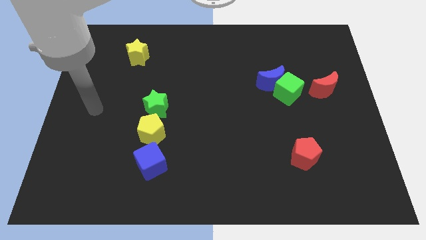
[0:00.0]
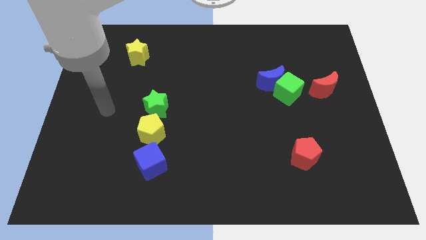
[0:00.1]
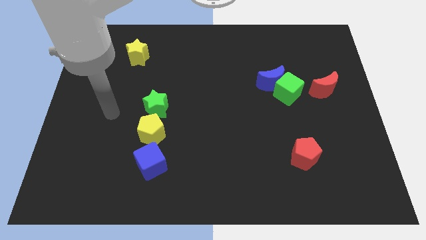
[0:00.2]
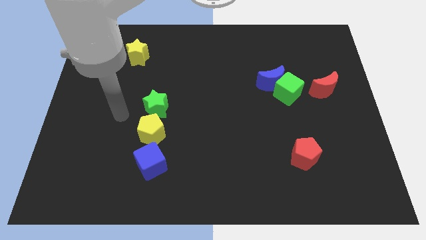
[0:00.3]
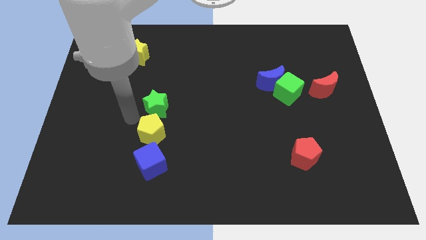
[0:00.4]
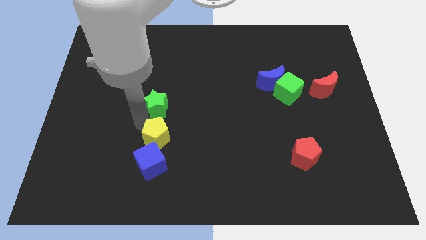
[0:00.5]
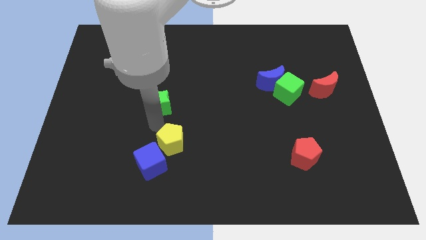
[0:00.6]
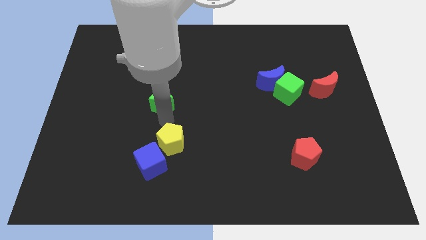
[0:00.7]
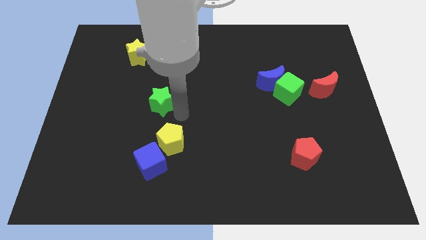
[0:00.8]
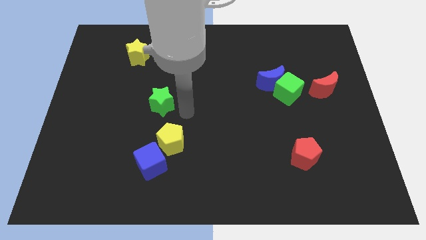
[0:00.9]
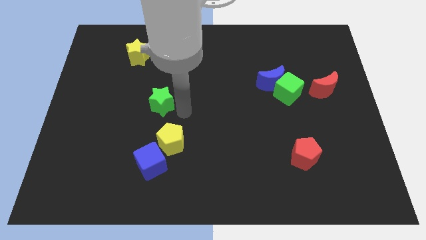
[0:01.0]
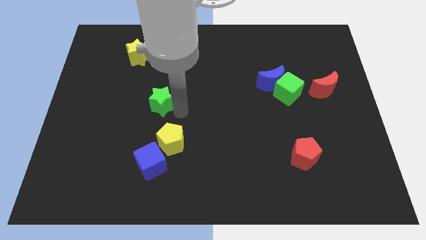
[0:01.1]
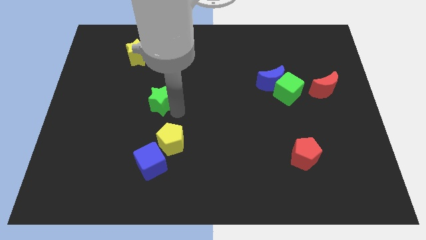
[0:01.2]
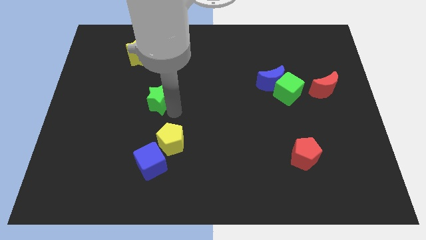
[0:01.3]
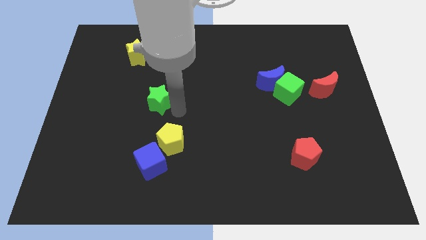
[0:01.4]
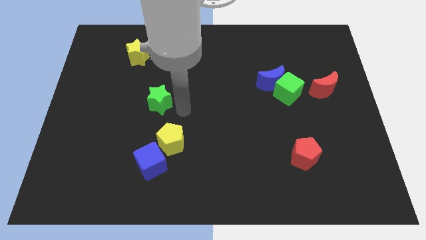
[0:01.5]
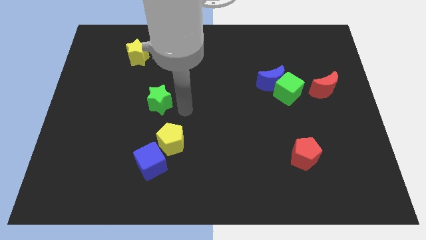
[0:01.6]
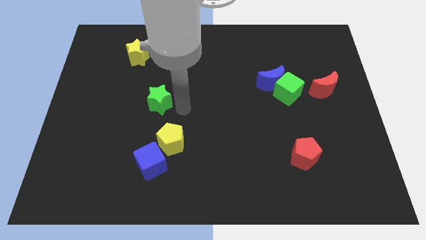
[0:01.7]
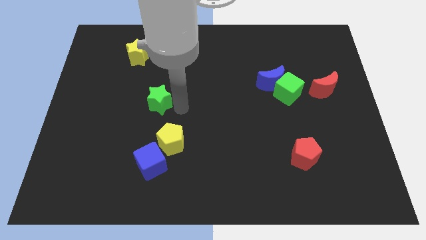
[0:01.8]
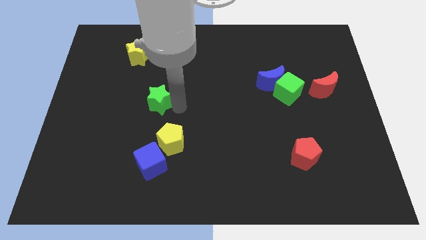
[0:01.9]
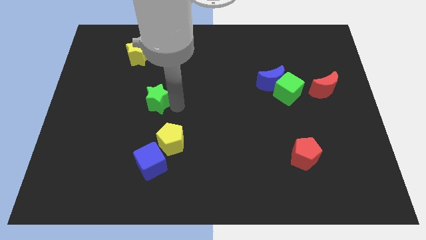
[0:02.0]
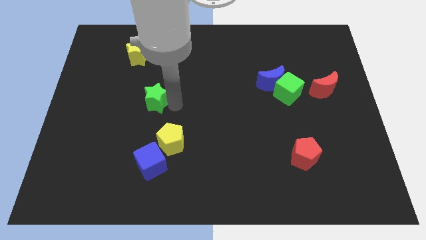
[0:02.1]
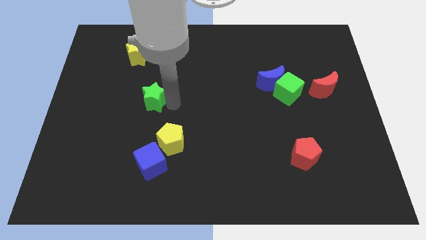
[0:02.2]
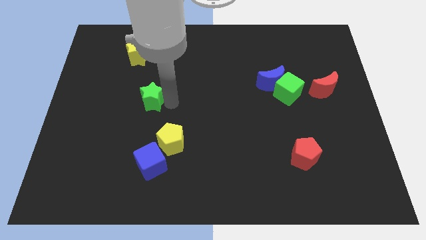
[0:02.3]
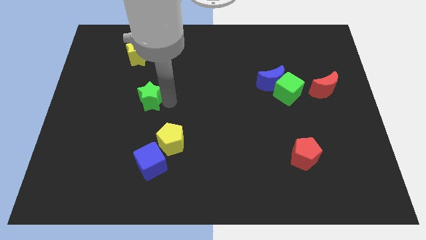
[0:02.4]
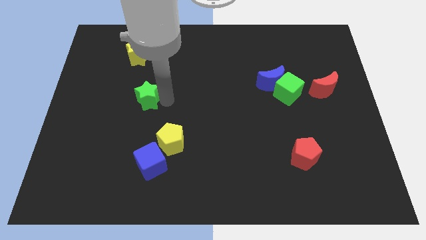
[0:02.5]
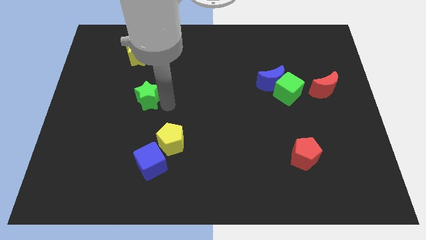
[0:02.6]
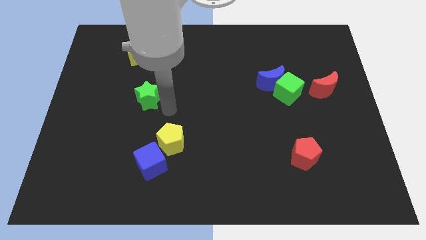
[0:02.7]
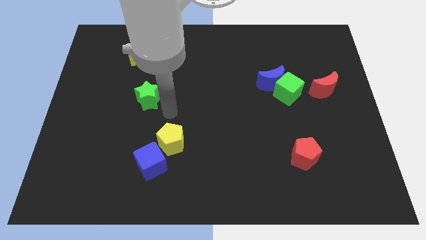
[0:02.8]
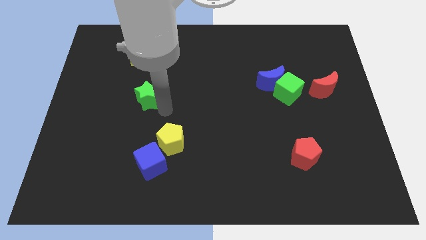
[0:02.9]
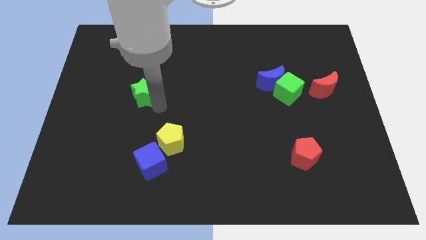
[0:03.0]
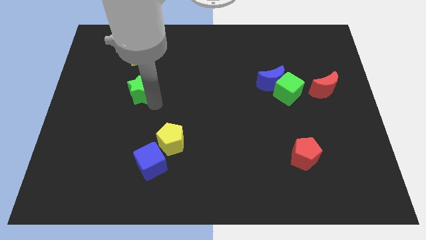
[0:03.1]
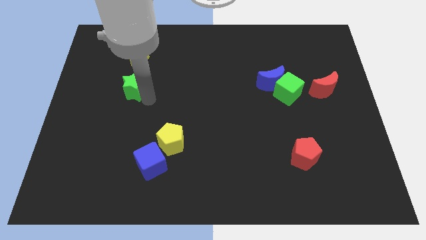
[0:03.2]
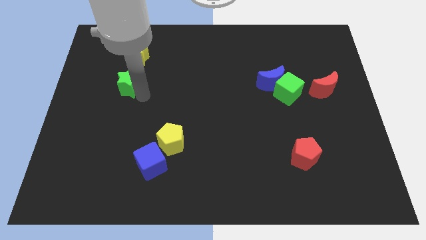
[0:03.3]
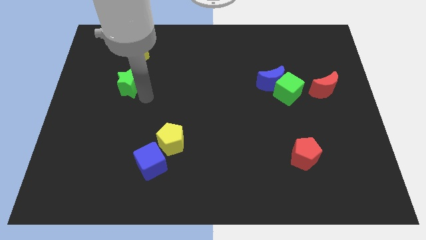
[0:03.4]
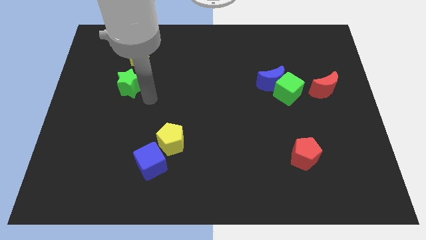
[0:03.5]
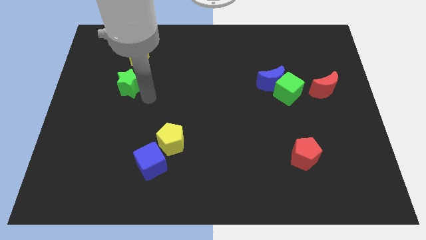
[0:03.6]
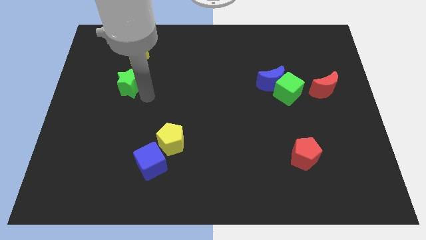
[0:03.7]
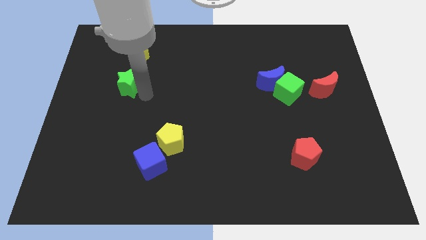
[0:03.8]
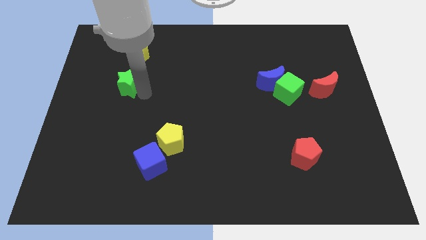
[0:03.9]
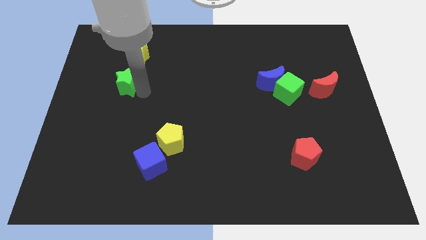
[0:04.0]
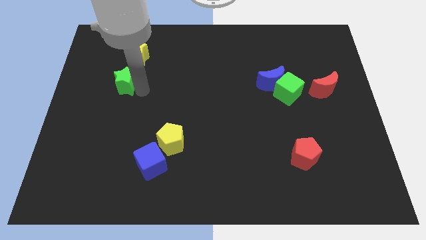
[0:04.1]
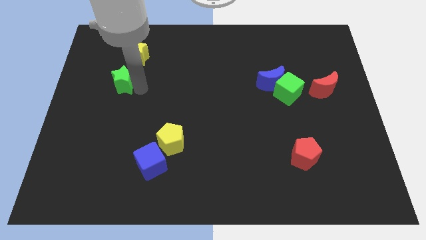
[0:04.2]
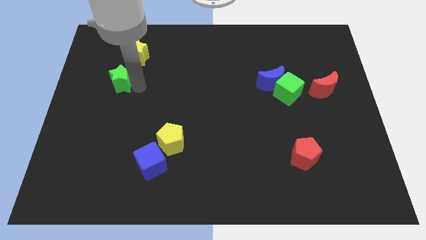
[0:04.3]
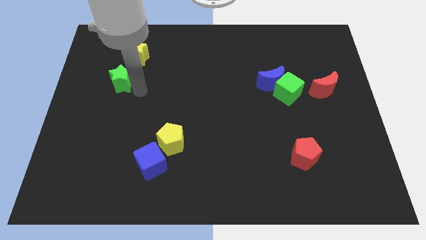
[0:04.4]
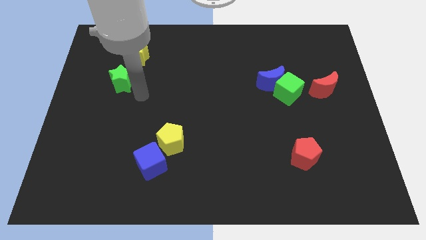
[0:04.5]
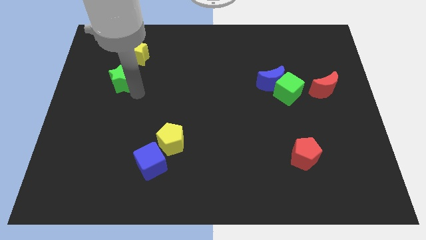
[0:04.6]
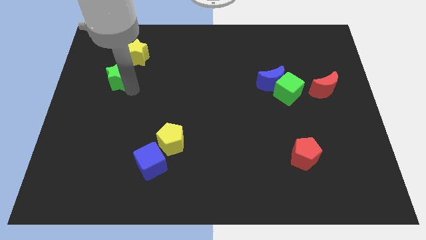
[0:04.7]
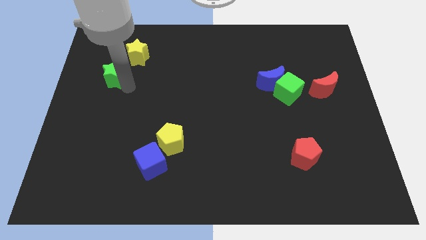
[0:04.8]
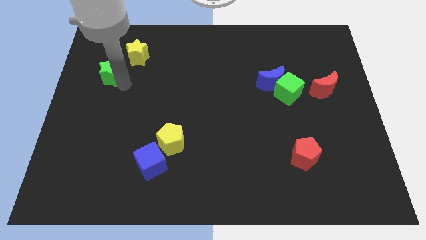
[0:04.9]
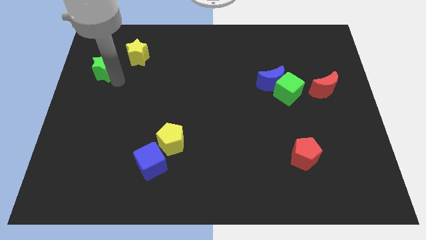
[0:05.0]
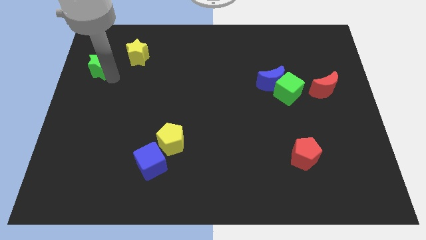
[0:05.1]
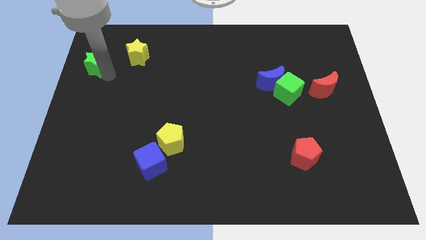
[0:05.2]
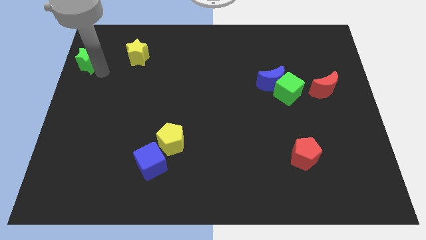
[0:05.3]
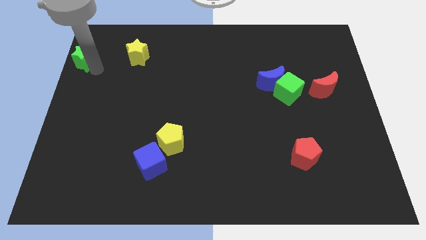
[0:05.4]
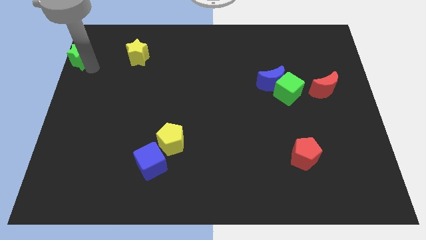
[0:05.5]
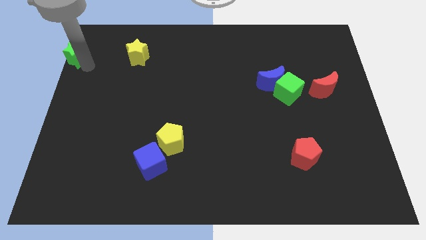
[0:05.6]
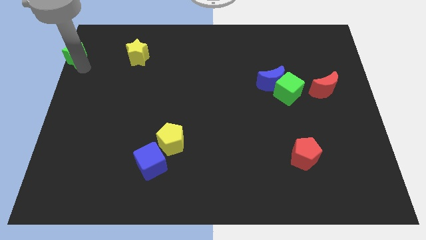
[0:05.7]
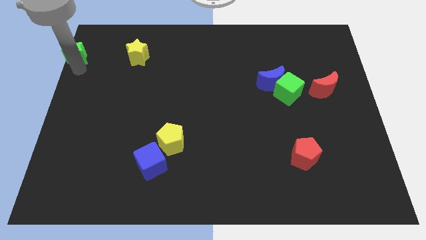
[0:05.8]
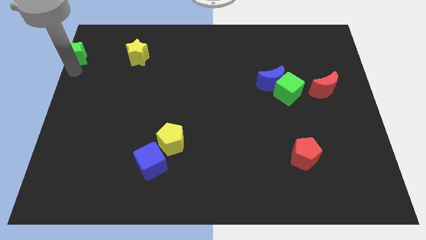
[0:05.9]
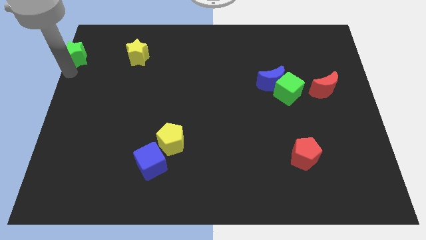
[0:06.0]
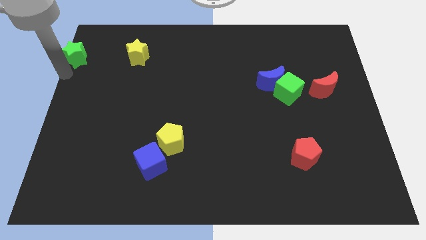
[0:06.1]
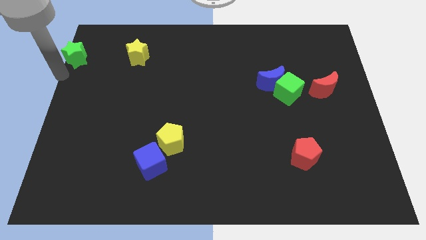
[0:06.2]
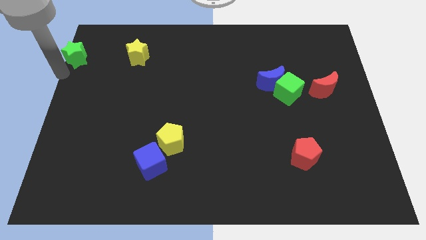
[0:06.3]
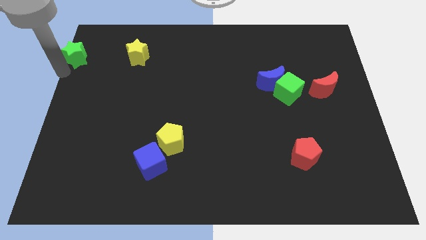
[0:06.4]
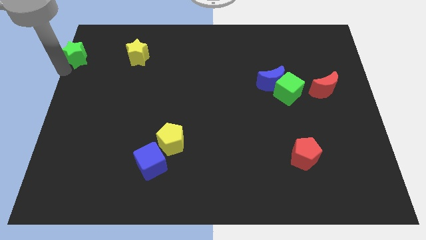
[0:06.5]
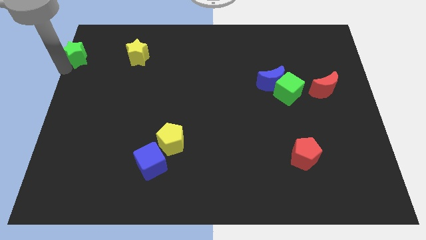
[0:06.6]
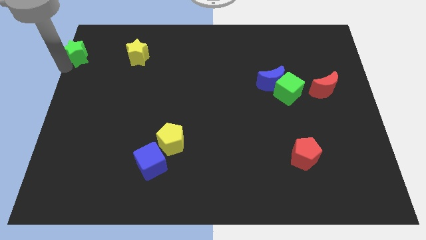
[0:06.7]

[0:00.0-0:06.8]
push the green star to the top left

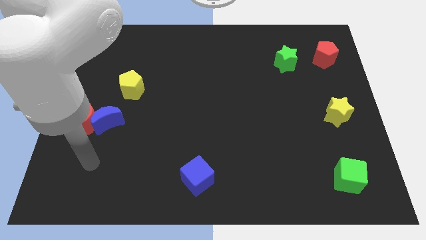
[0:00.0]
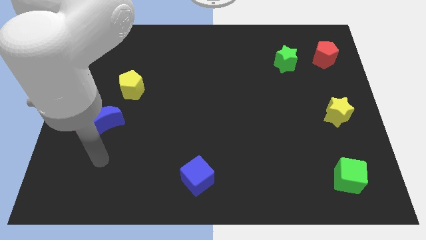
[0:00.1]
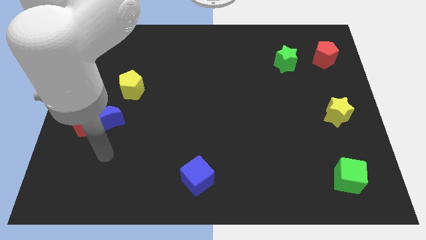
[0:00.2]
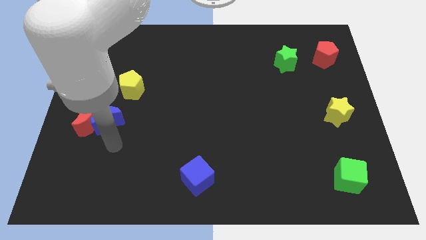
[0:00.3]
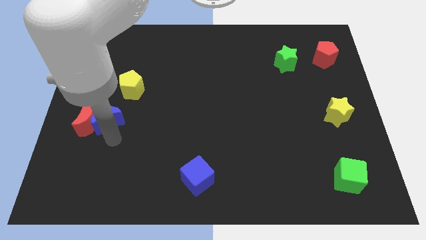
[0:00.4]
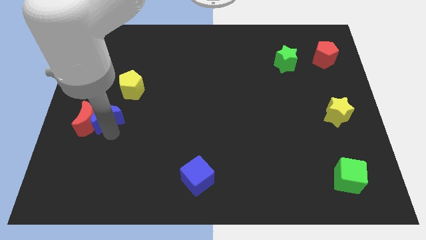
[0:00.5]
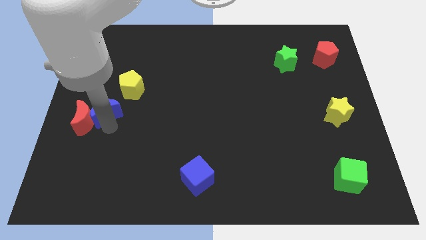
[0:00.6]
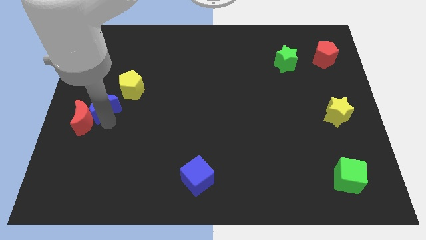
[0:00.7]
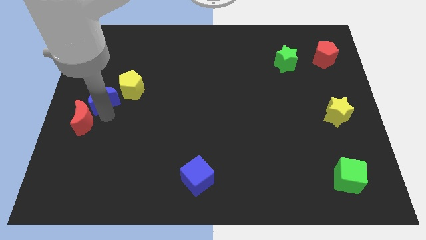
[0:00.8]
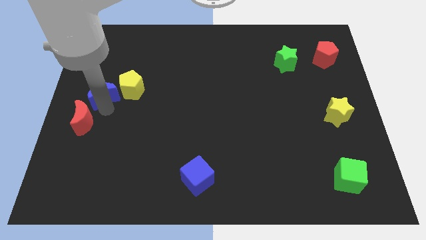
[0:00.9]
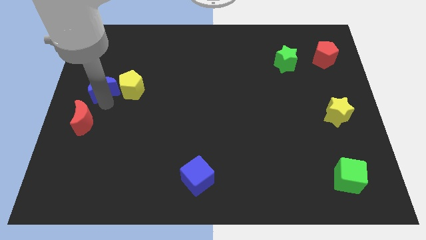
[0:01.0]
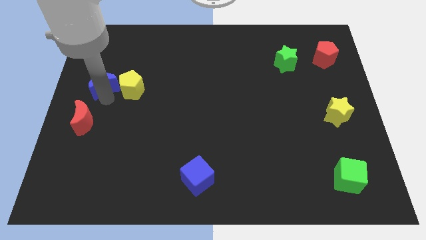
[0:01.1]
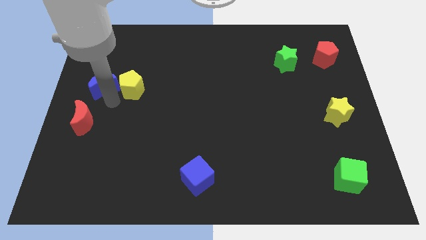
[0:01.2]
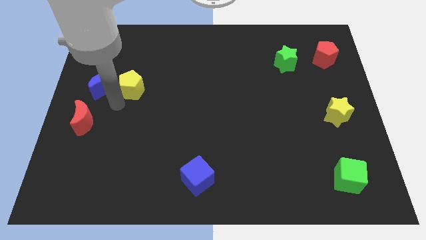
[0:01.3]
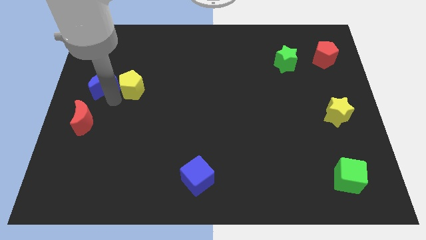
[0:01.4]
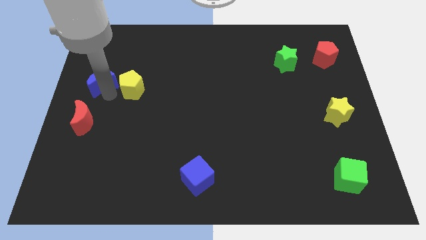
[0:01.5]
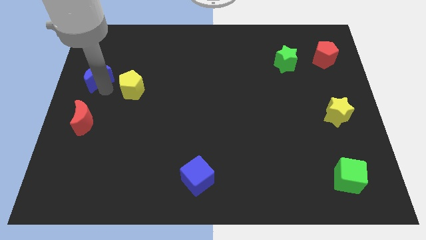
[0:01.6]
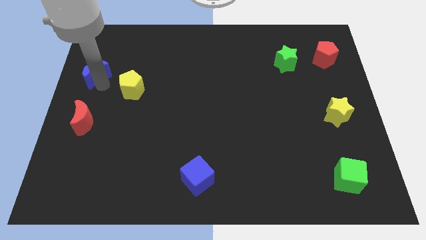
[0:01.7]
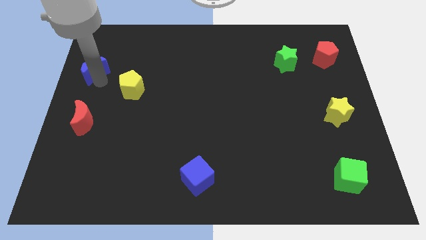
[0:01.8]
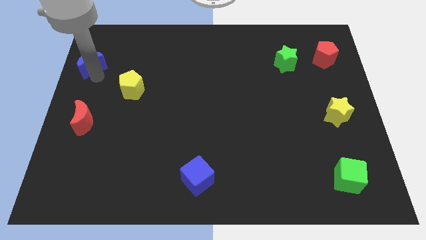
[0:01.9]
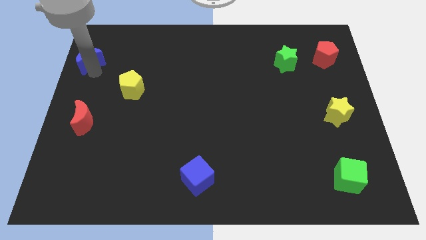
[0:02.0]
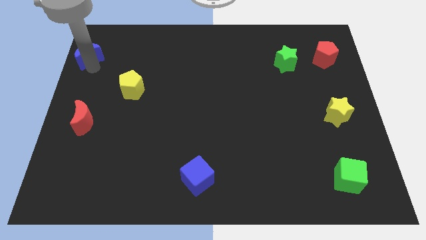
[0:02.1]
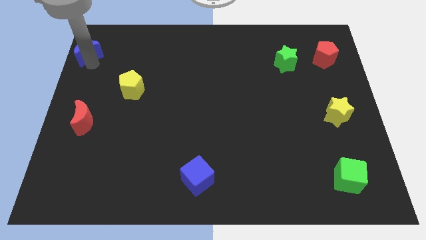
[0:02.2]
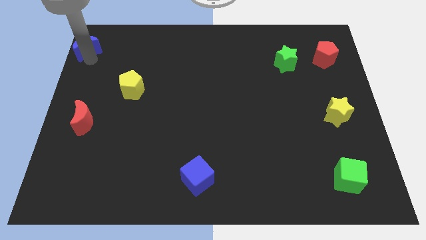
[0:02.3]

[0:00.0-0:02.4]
push the blue moon to the upper left corner
